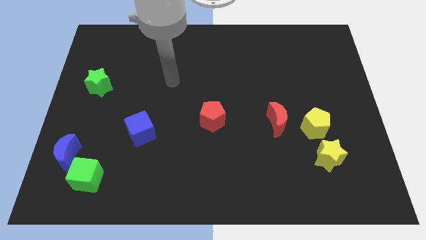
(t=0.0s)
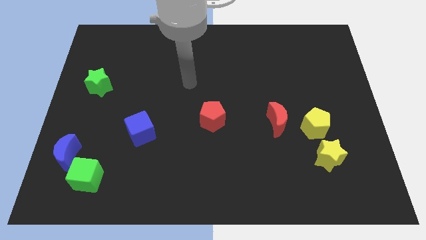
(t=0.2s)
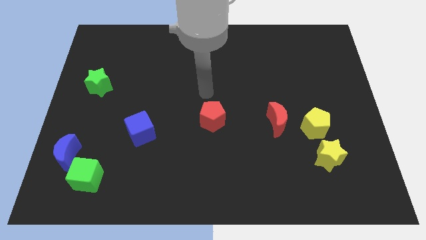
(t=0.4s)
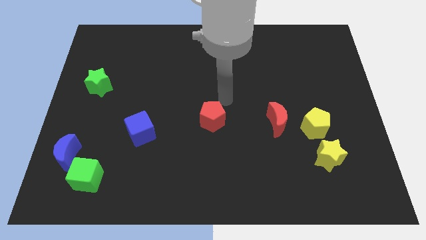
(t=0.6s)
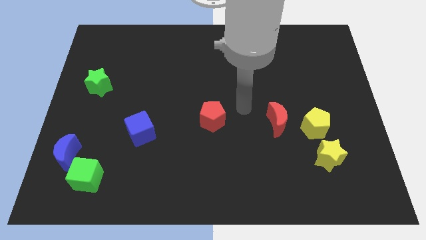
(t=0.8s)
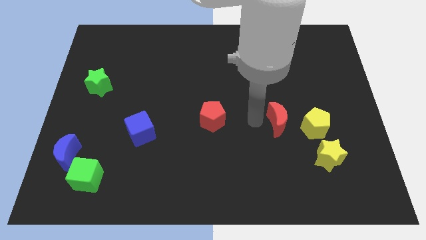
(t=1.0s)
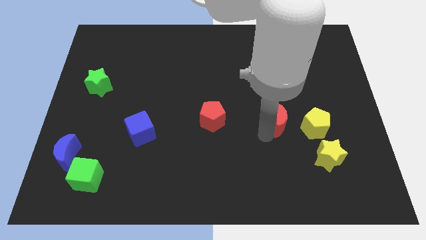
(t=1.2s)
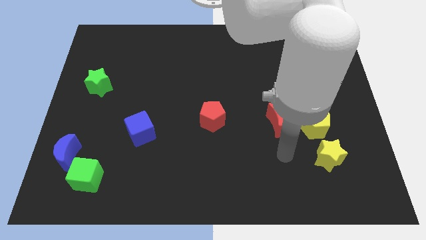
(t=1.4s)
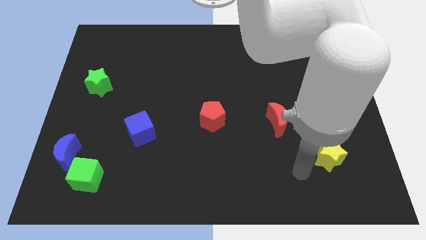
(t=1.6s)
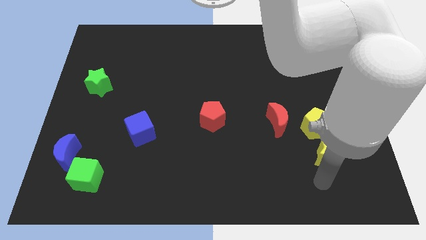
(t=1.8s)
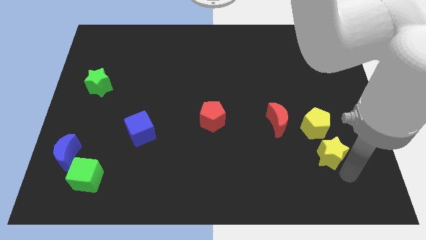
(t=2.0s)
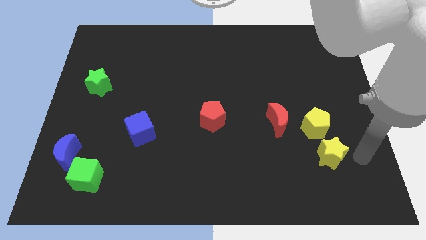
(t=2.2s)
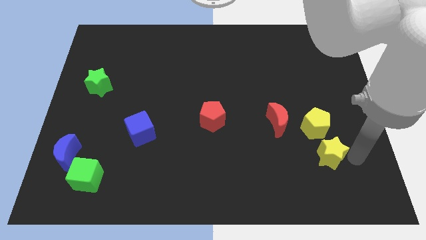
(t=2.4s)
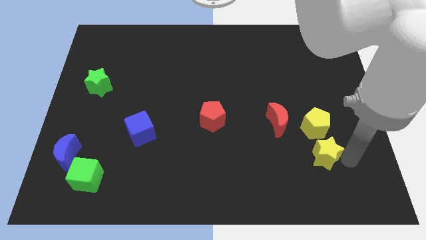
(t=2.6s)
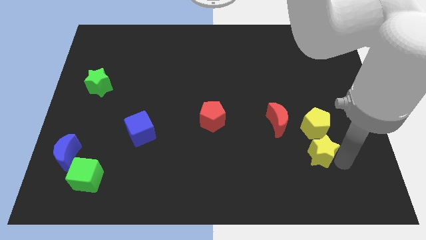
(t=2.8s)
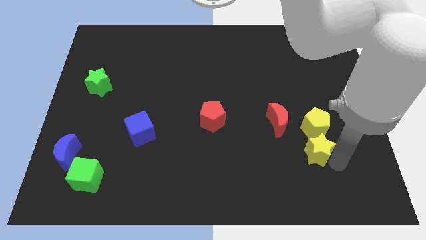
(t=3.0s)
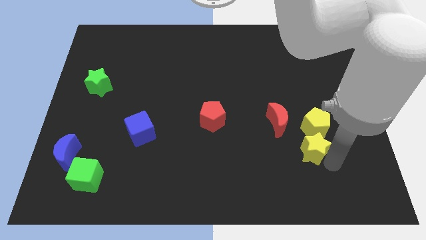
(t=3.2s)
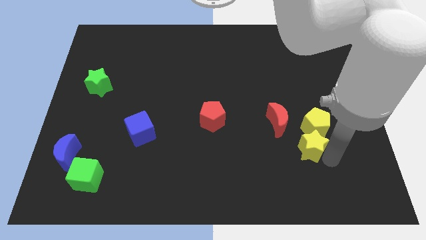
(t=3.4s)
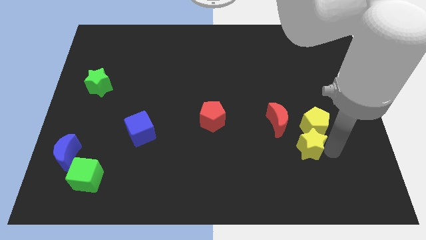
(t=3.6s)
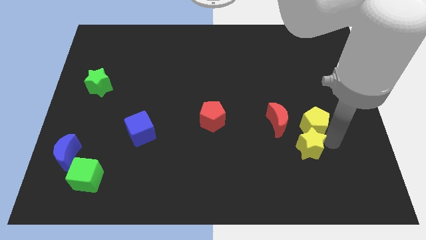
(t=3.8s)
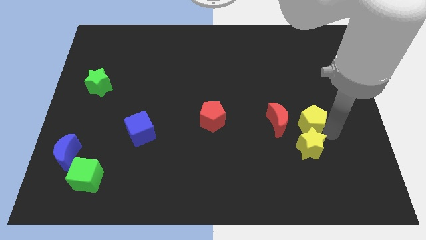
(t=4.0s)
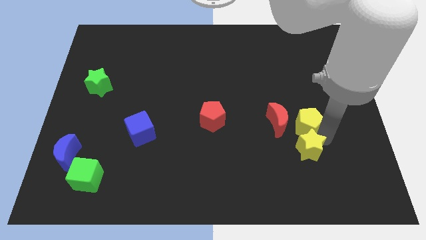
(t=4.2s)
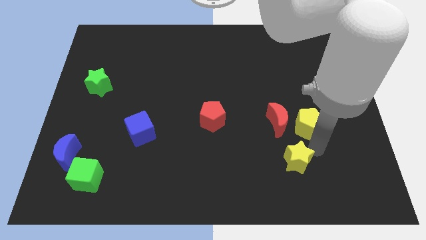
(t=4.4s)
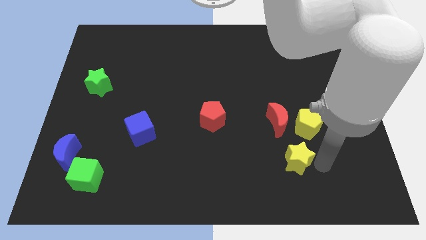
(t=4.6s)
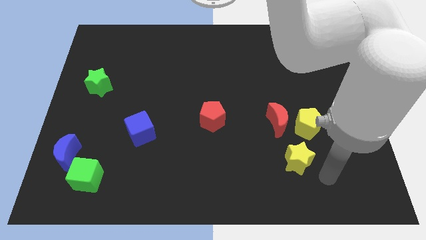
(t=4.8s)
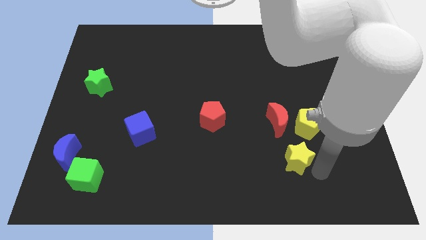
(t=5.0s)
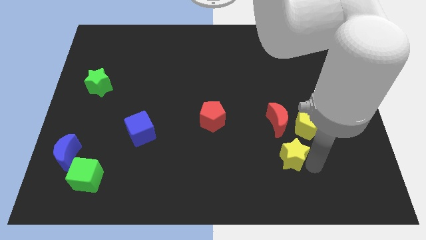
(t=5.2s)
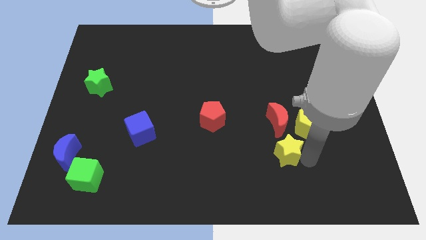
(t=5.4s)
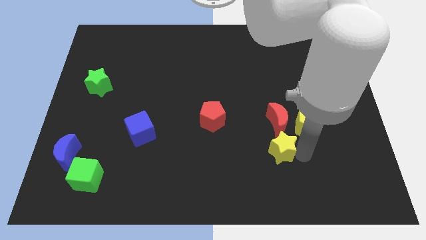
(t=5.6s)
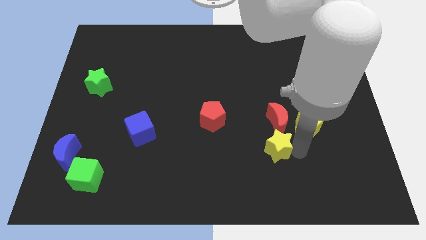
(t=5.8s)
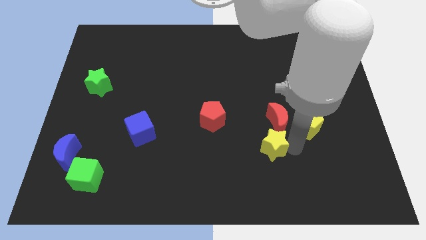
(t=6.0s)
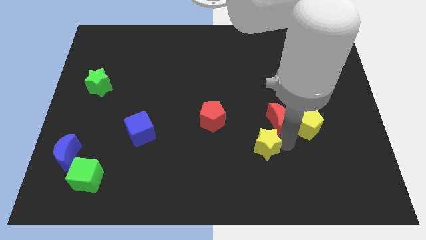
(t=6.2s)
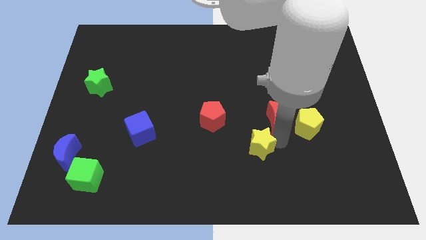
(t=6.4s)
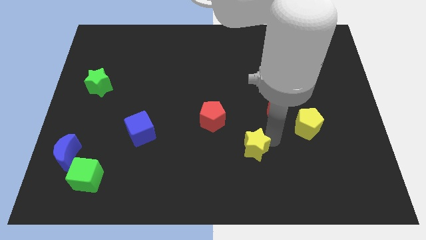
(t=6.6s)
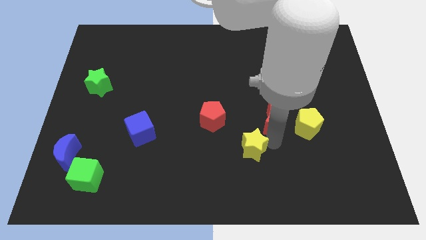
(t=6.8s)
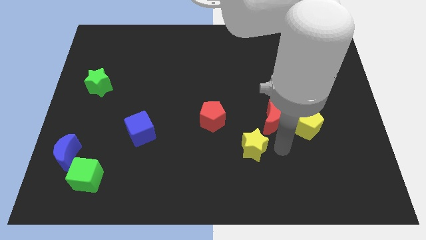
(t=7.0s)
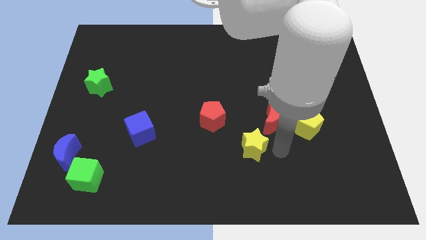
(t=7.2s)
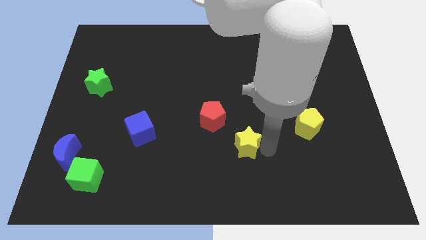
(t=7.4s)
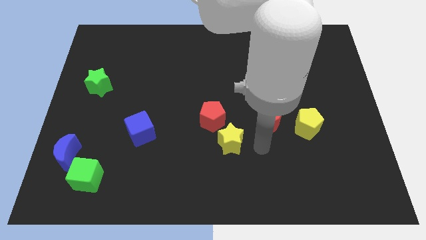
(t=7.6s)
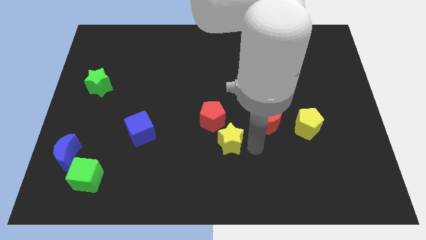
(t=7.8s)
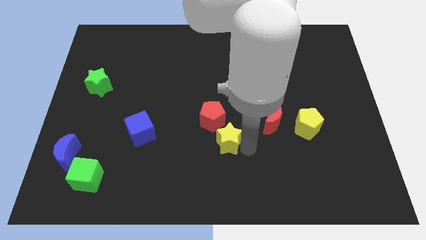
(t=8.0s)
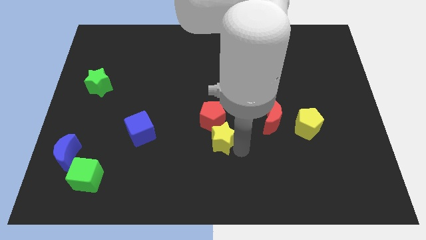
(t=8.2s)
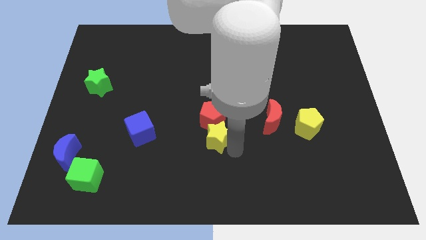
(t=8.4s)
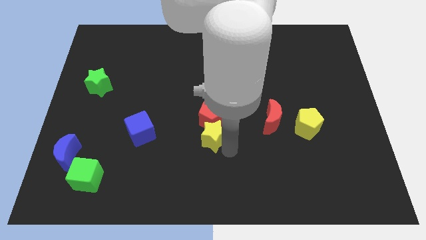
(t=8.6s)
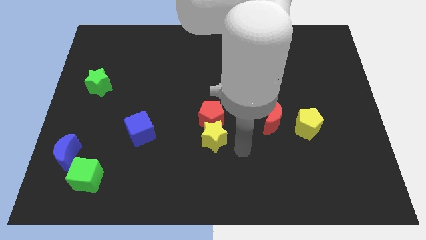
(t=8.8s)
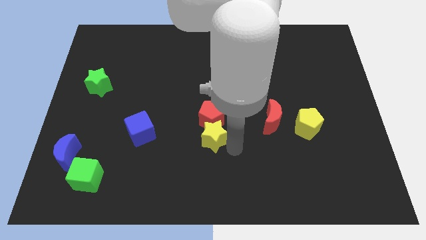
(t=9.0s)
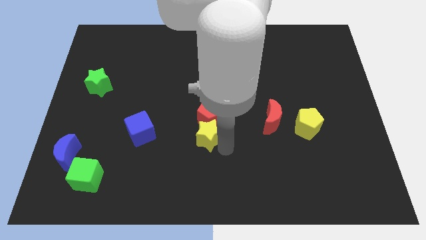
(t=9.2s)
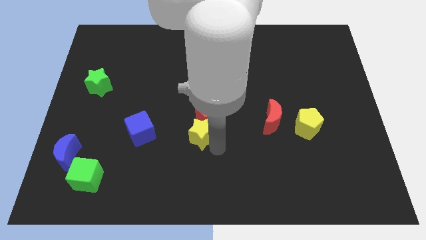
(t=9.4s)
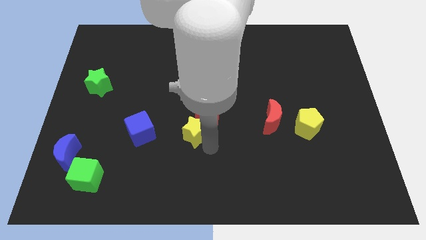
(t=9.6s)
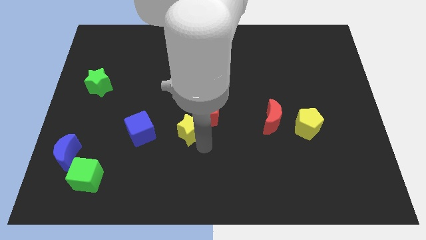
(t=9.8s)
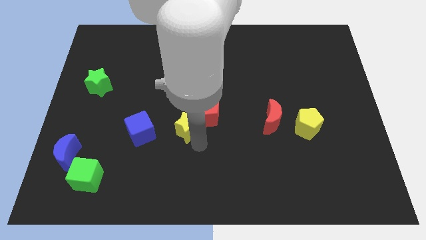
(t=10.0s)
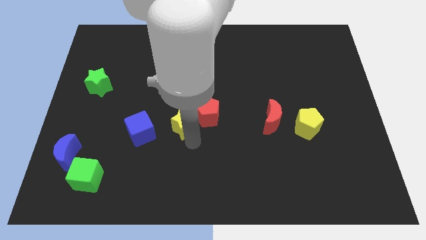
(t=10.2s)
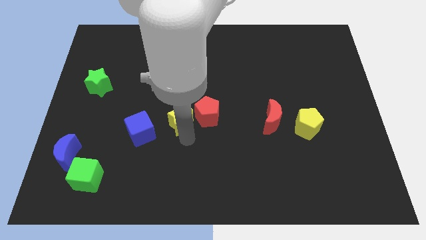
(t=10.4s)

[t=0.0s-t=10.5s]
push the yellow star to the top right side of the blue cube

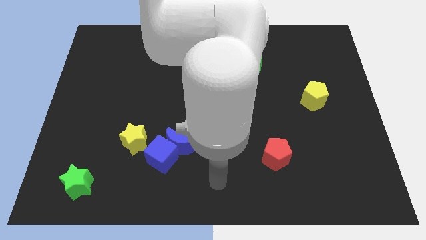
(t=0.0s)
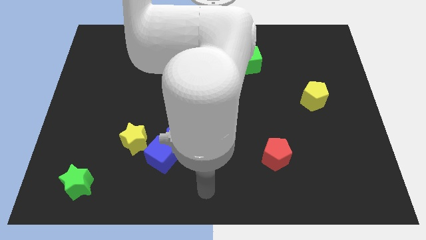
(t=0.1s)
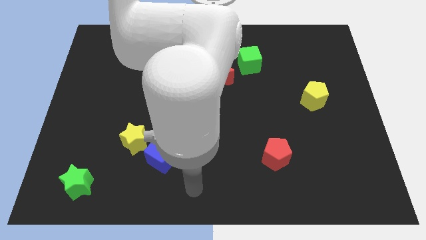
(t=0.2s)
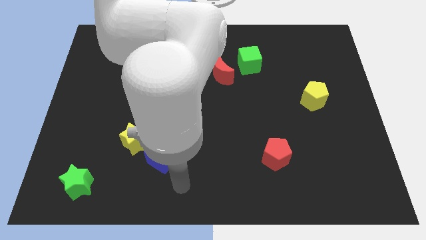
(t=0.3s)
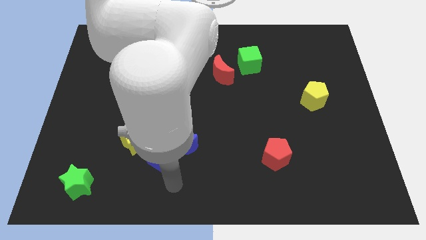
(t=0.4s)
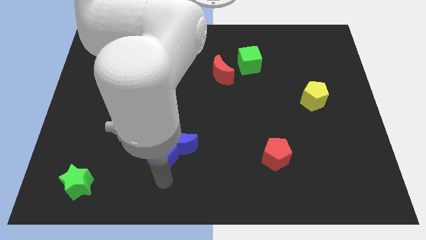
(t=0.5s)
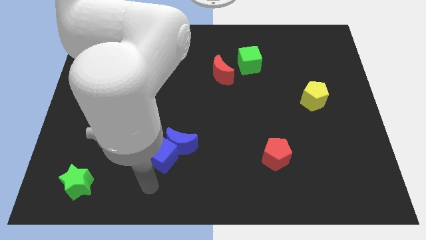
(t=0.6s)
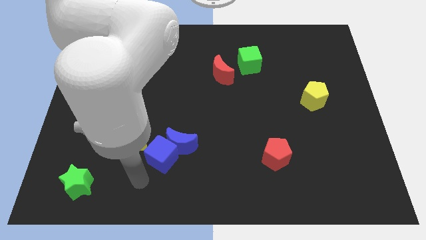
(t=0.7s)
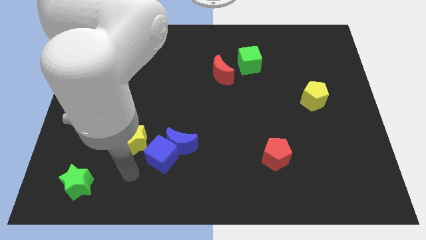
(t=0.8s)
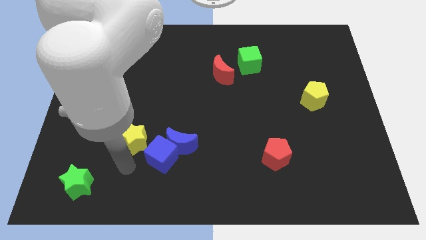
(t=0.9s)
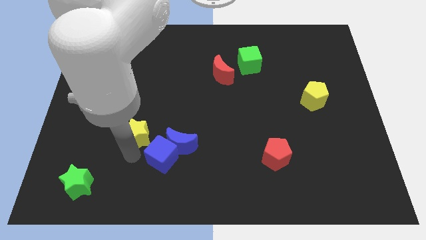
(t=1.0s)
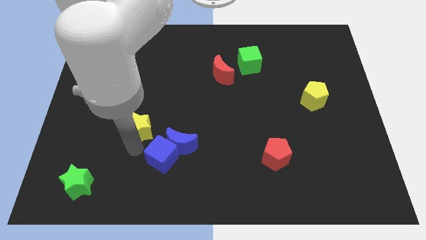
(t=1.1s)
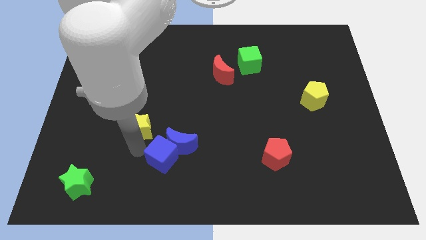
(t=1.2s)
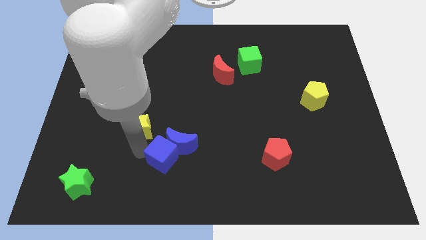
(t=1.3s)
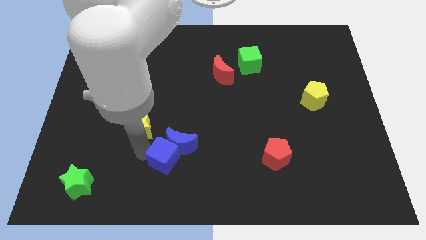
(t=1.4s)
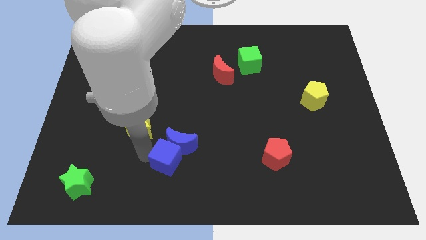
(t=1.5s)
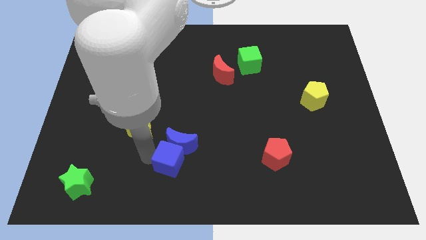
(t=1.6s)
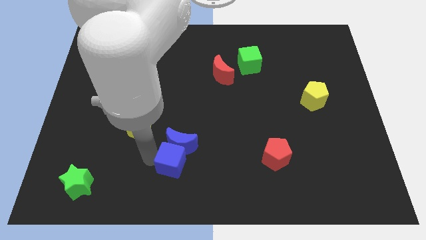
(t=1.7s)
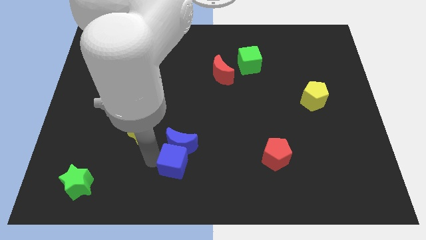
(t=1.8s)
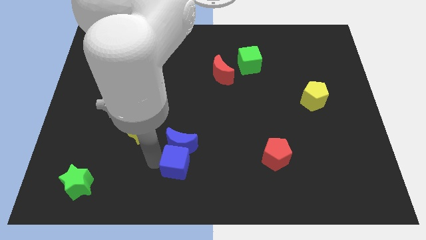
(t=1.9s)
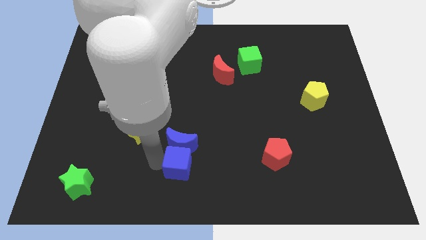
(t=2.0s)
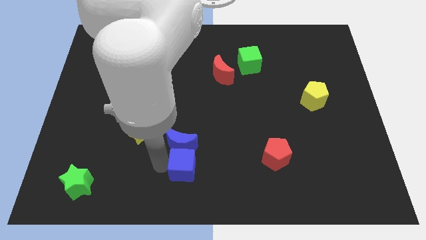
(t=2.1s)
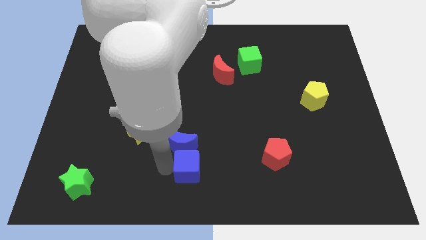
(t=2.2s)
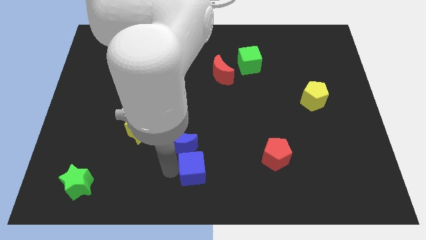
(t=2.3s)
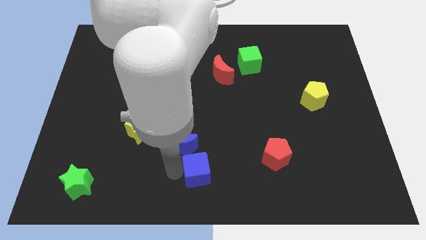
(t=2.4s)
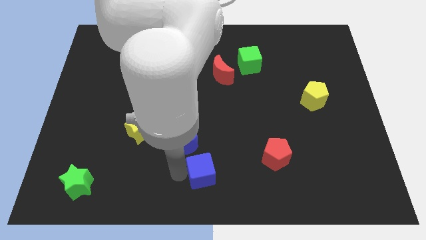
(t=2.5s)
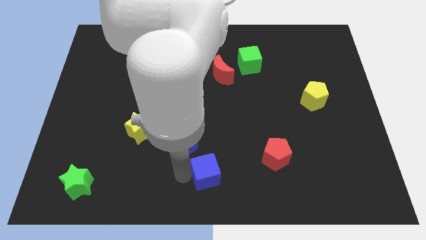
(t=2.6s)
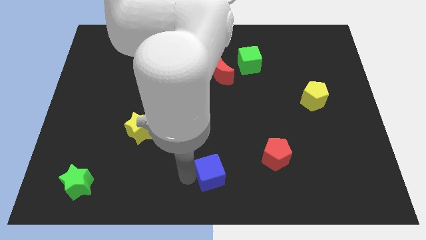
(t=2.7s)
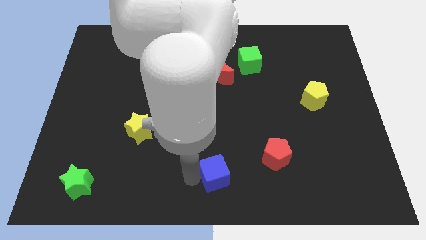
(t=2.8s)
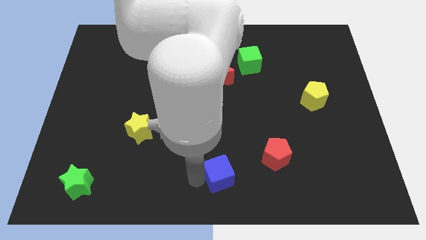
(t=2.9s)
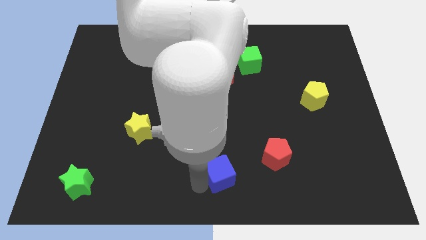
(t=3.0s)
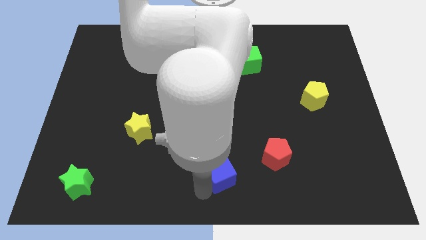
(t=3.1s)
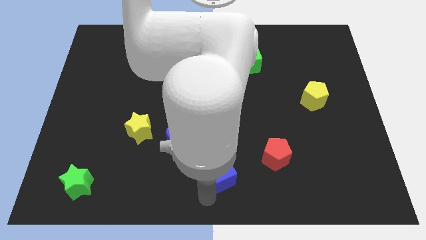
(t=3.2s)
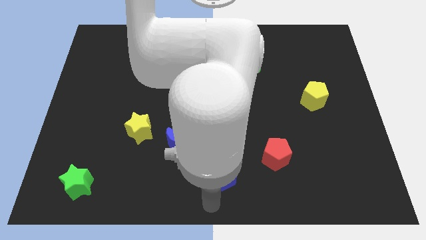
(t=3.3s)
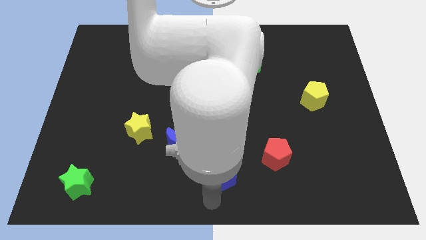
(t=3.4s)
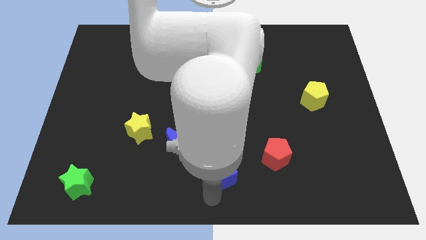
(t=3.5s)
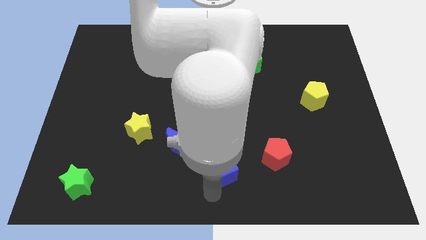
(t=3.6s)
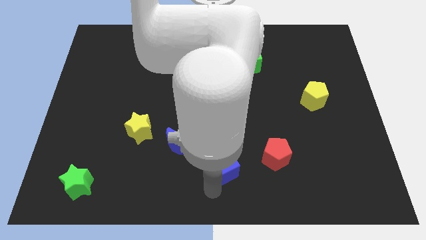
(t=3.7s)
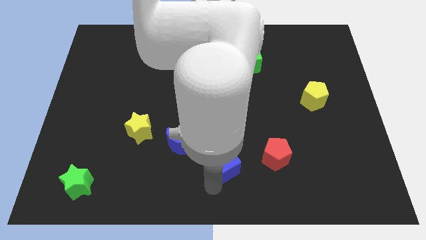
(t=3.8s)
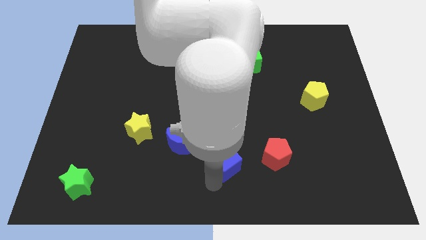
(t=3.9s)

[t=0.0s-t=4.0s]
put the blue cube to the right of the blue moon
